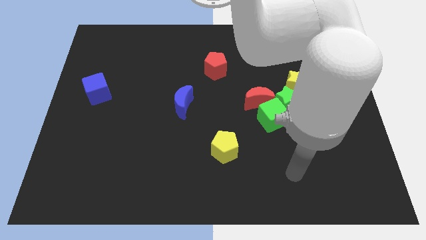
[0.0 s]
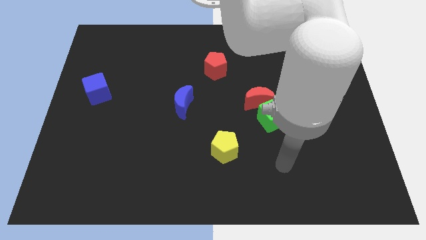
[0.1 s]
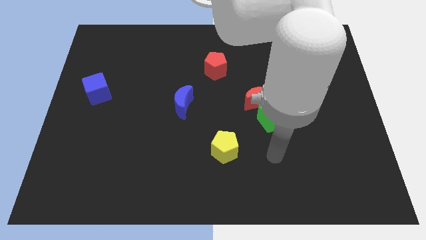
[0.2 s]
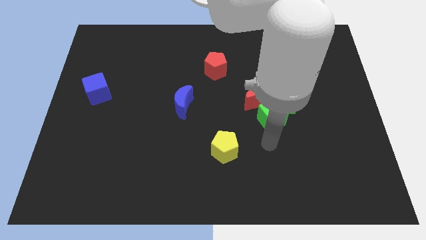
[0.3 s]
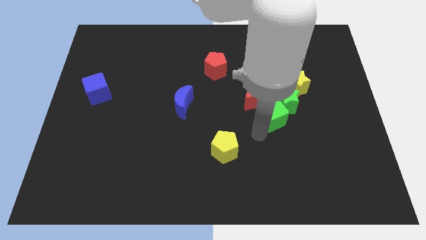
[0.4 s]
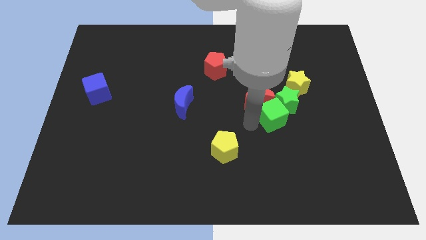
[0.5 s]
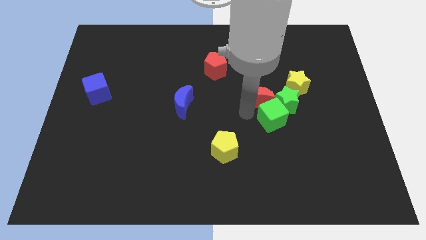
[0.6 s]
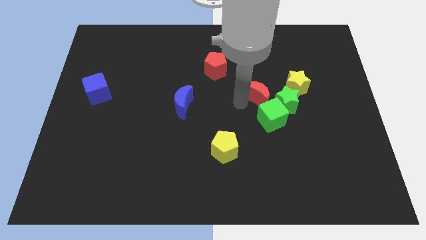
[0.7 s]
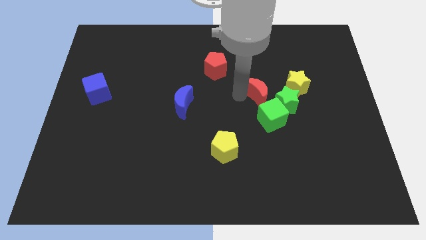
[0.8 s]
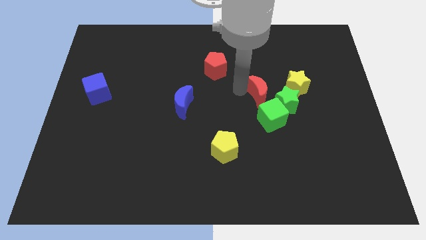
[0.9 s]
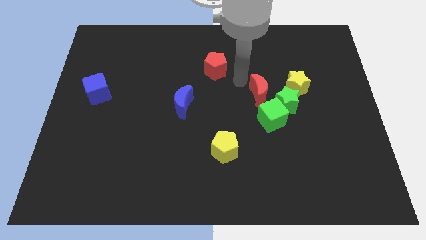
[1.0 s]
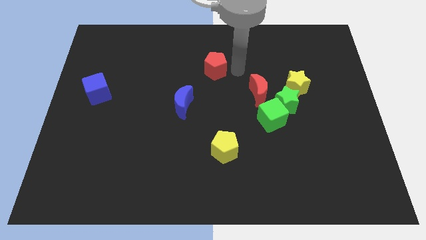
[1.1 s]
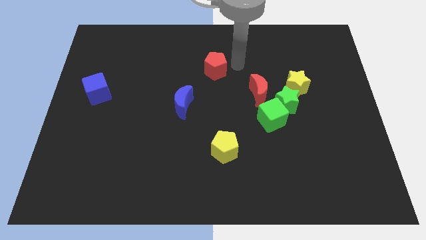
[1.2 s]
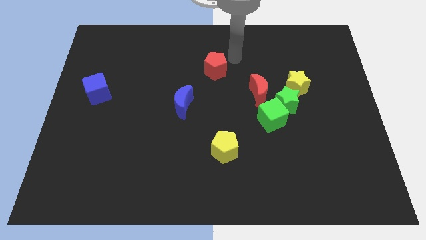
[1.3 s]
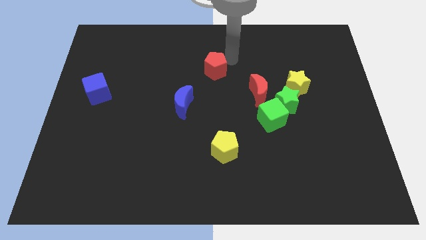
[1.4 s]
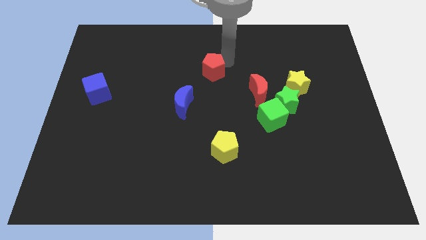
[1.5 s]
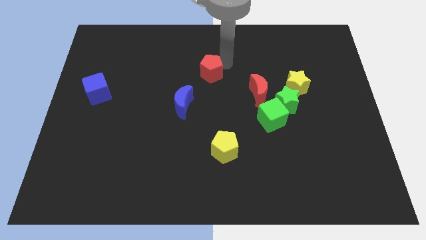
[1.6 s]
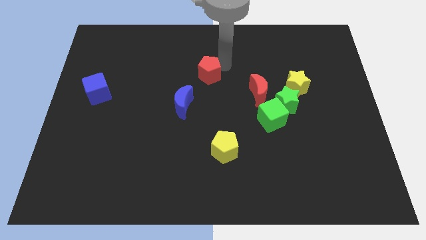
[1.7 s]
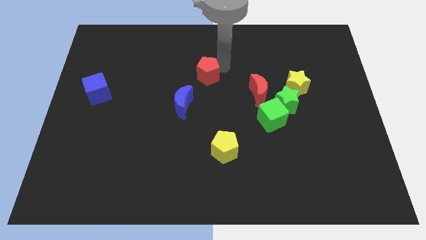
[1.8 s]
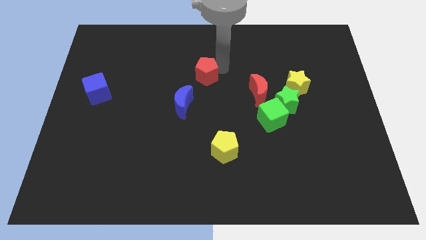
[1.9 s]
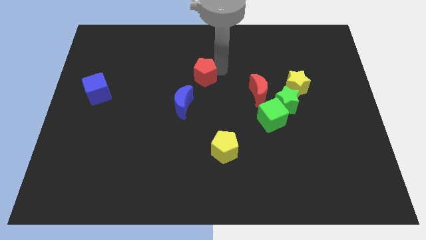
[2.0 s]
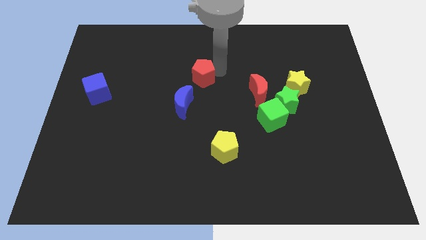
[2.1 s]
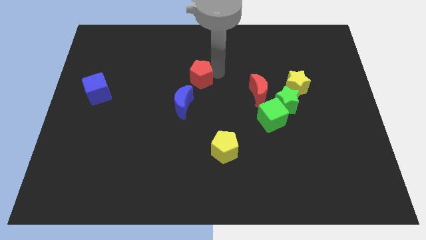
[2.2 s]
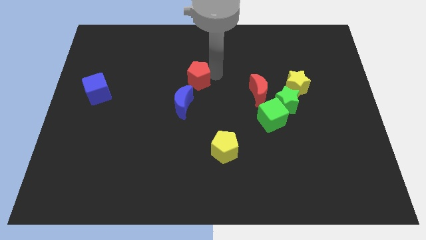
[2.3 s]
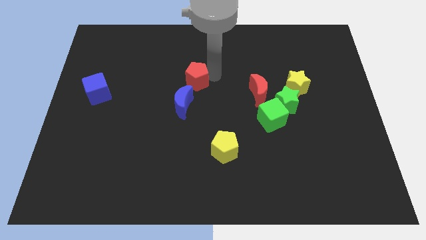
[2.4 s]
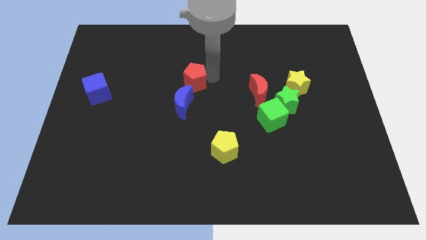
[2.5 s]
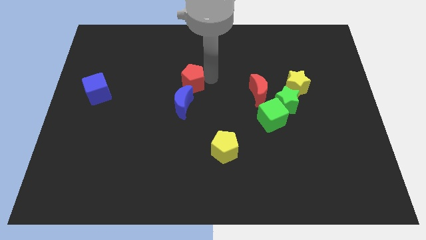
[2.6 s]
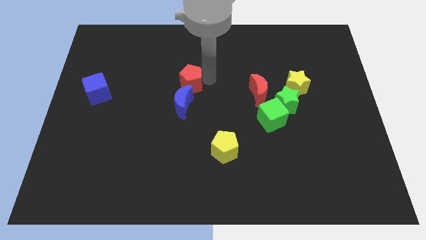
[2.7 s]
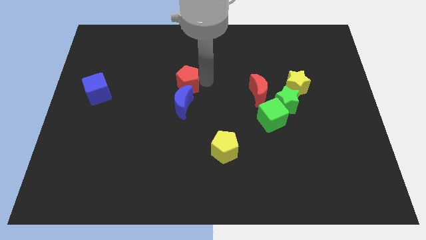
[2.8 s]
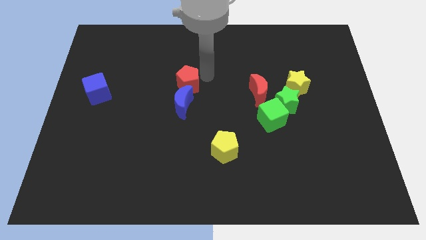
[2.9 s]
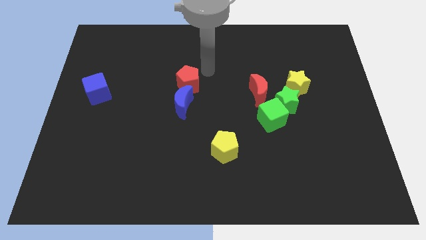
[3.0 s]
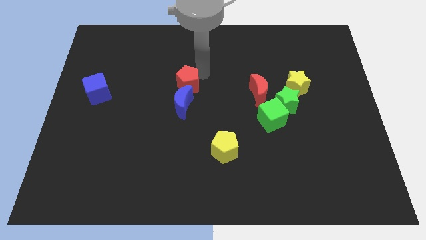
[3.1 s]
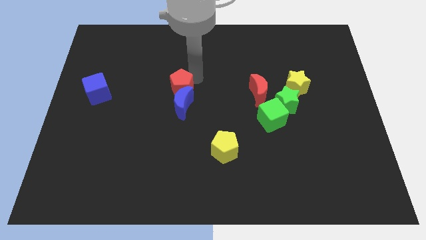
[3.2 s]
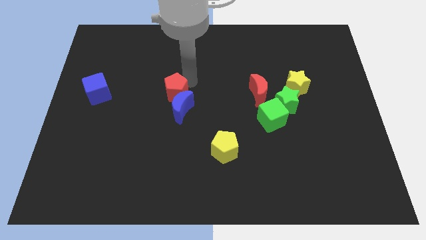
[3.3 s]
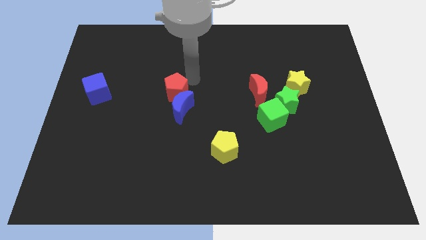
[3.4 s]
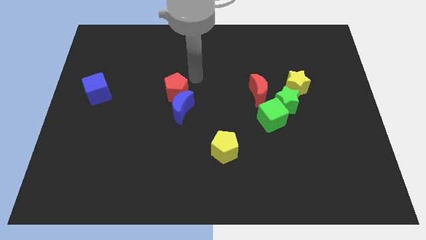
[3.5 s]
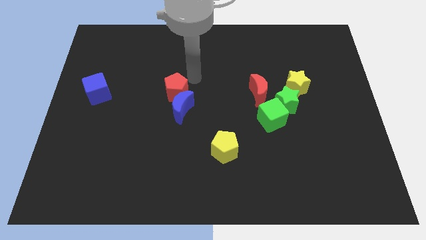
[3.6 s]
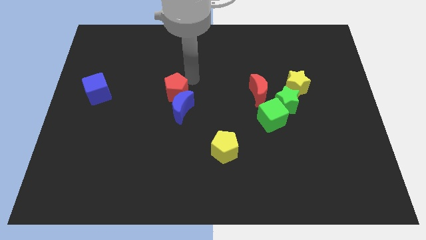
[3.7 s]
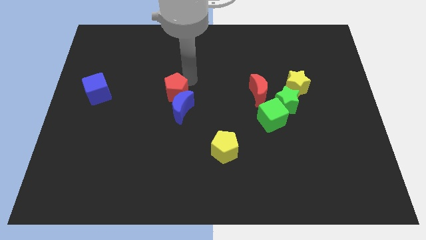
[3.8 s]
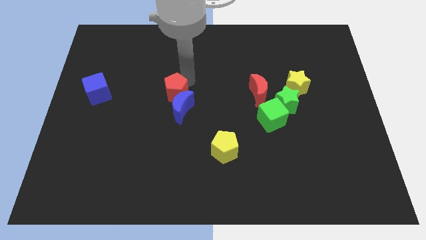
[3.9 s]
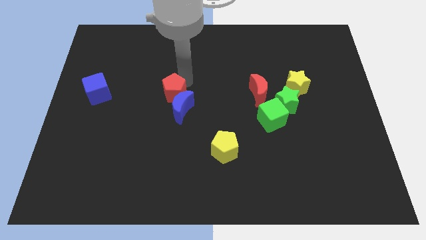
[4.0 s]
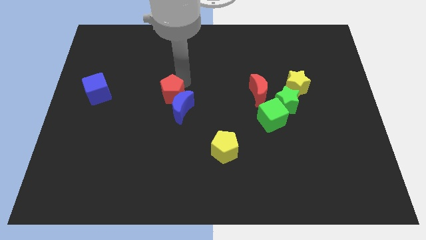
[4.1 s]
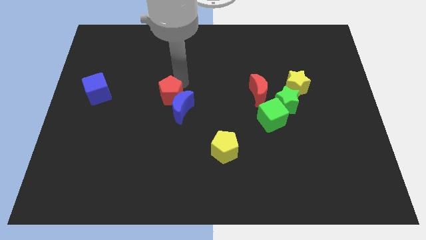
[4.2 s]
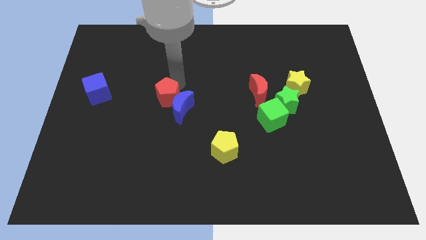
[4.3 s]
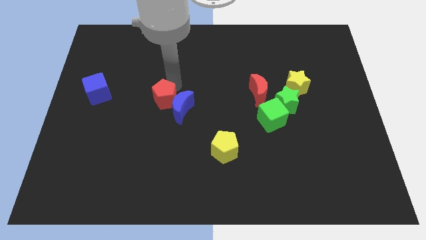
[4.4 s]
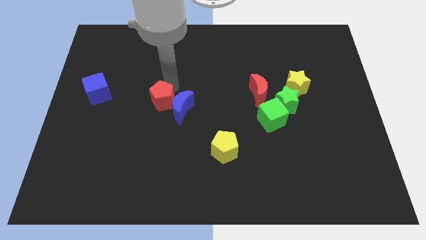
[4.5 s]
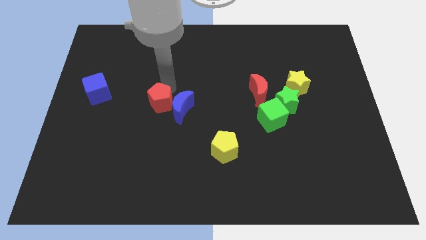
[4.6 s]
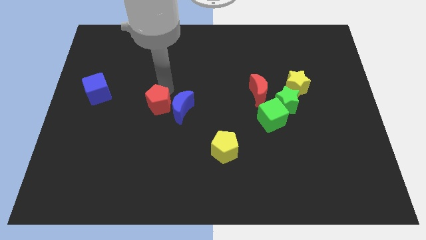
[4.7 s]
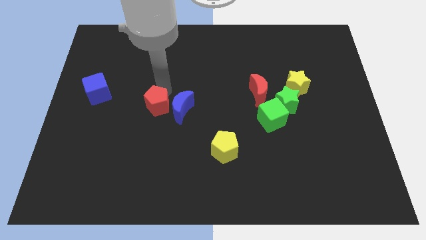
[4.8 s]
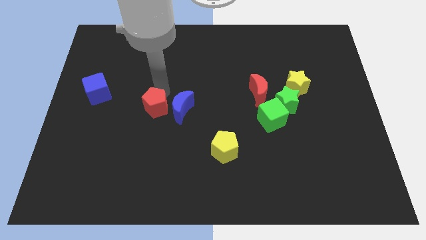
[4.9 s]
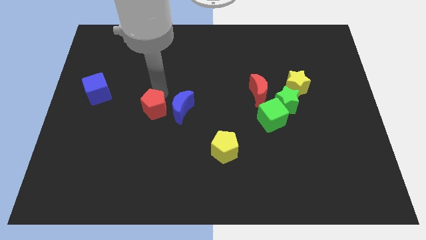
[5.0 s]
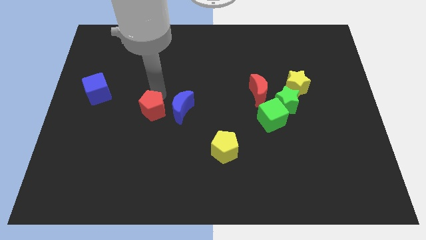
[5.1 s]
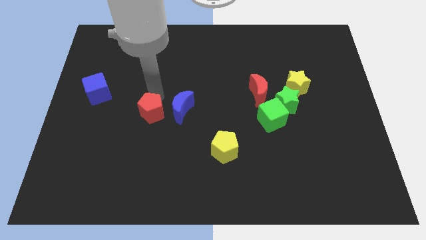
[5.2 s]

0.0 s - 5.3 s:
slide the red pentagon down and to the left

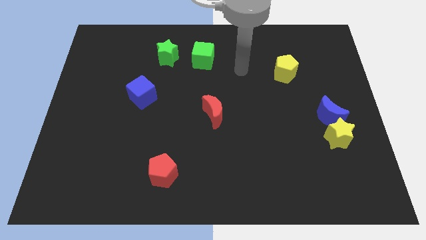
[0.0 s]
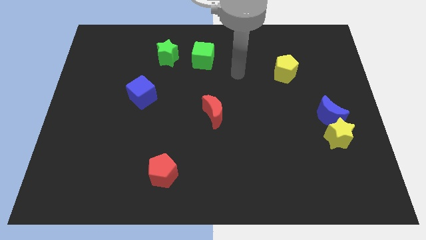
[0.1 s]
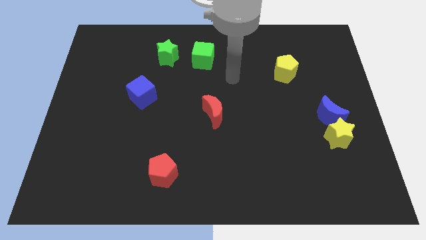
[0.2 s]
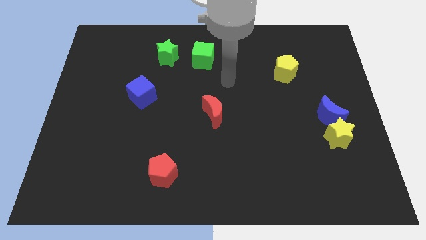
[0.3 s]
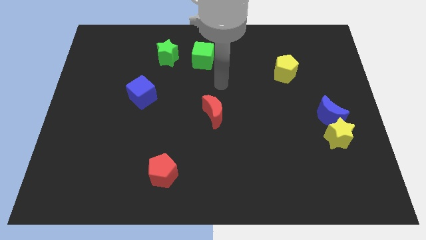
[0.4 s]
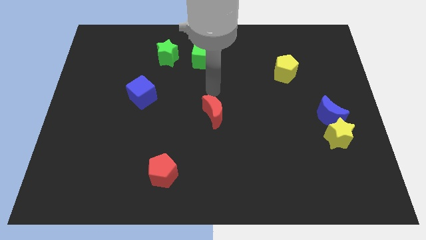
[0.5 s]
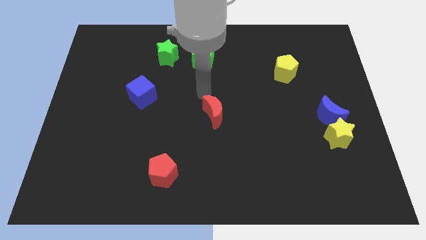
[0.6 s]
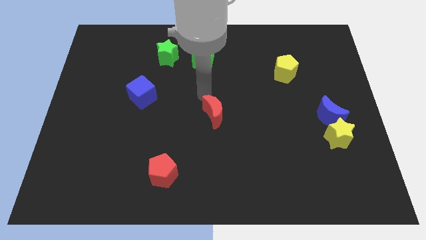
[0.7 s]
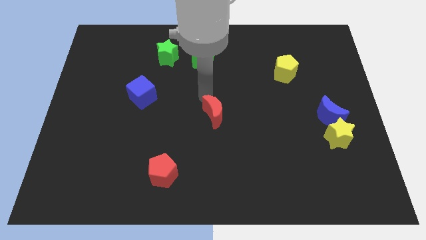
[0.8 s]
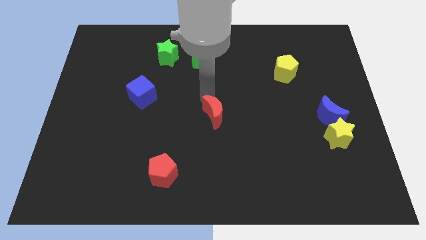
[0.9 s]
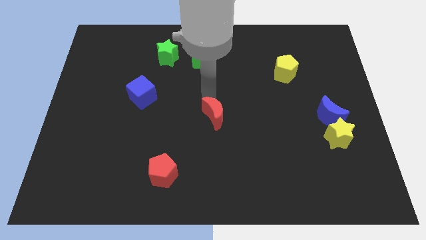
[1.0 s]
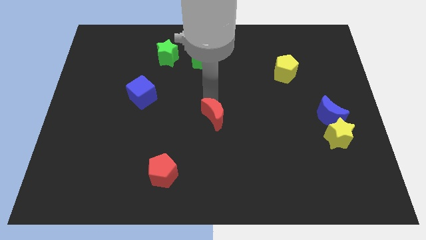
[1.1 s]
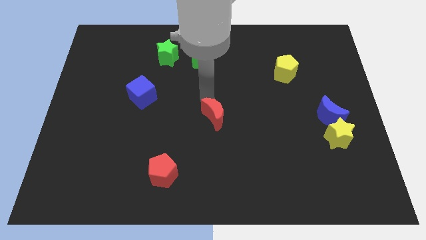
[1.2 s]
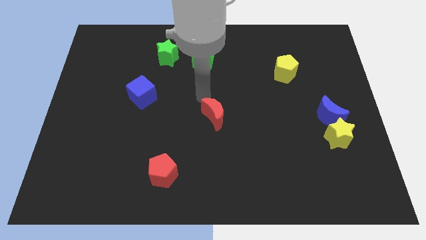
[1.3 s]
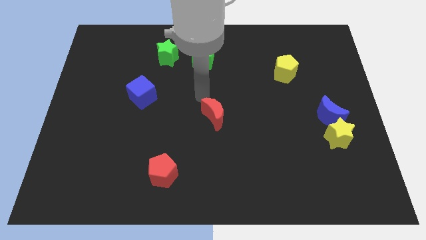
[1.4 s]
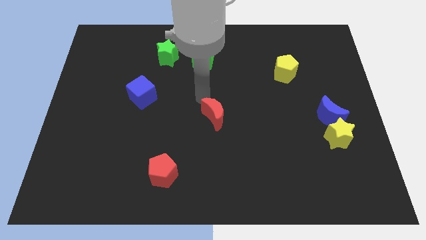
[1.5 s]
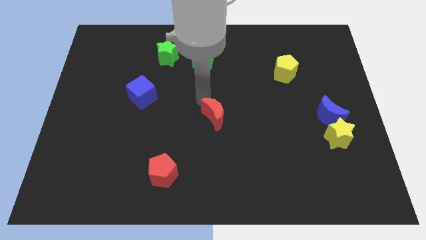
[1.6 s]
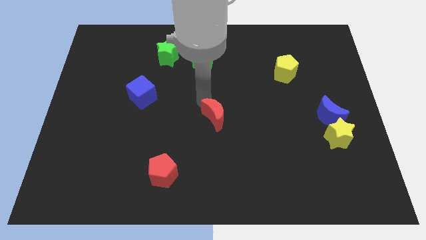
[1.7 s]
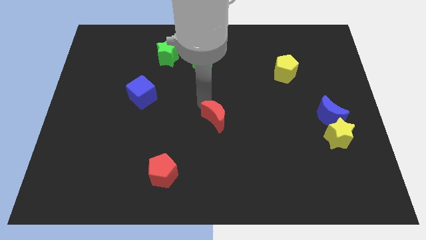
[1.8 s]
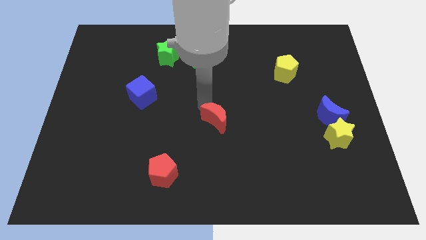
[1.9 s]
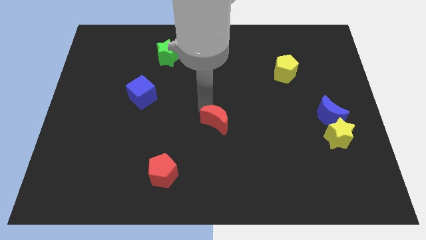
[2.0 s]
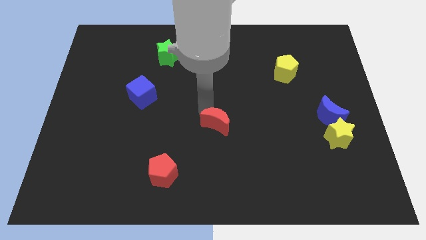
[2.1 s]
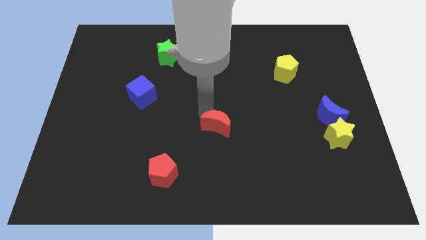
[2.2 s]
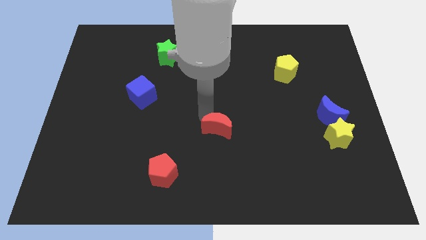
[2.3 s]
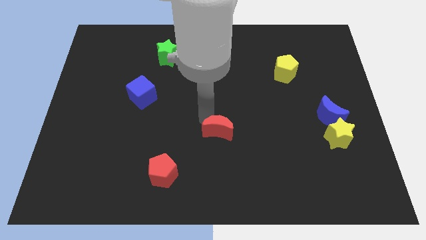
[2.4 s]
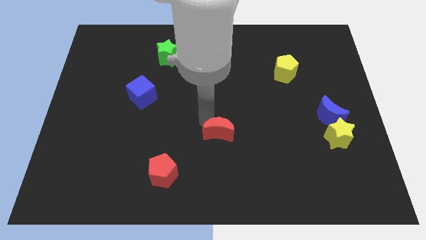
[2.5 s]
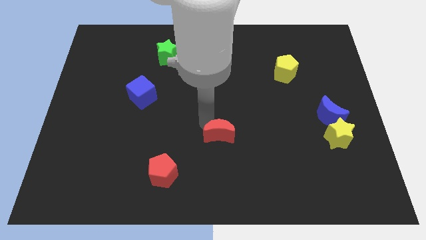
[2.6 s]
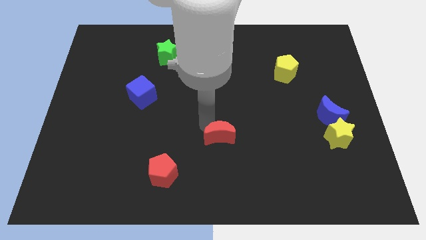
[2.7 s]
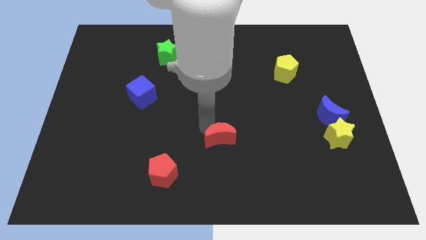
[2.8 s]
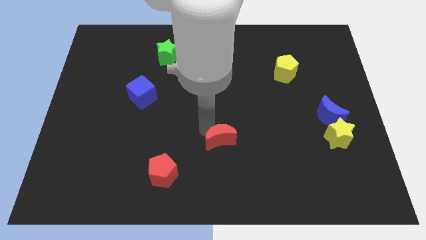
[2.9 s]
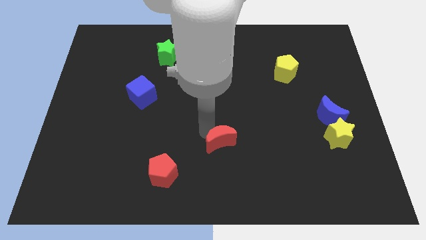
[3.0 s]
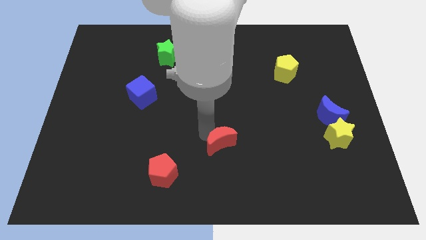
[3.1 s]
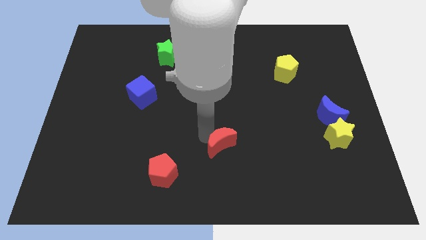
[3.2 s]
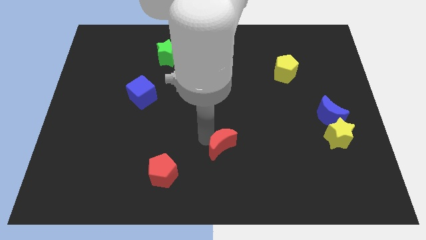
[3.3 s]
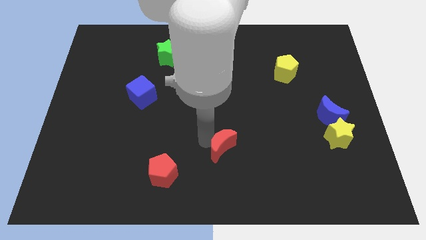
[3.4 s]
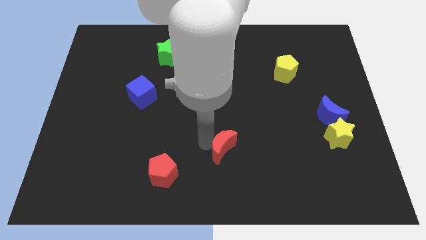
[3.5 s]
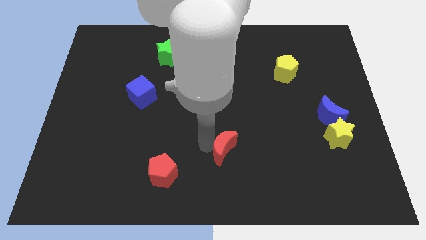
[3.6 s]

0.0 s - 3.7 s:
push the red moon diagonally downwards and right a little bit
